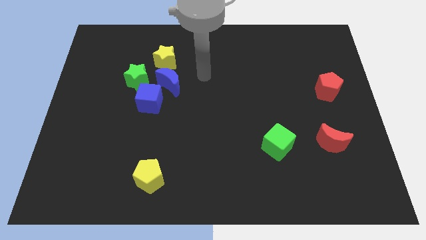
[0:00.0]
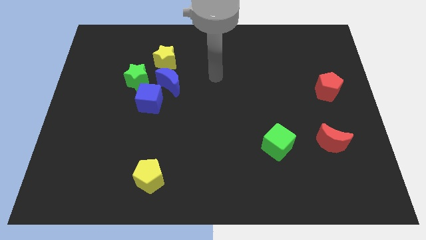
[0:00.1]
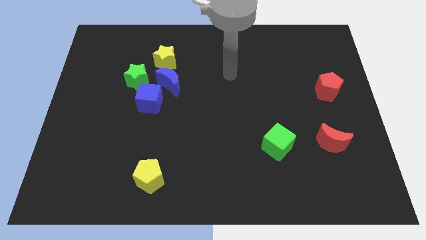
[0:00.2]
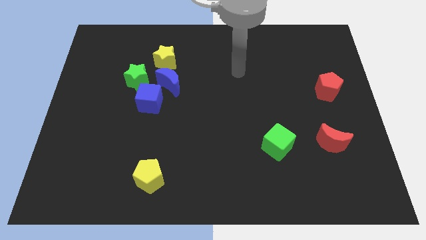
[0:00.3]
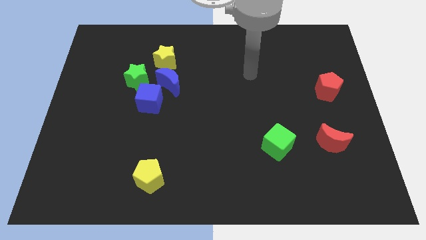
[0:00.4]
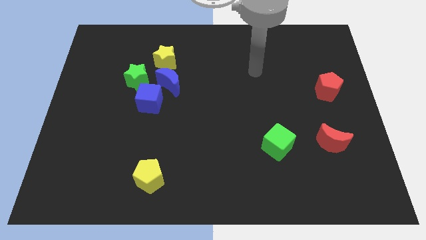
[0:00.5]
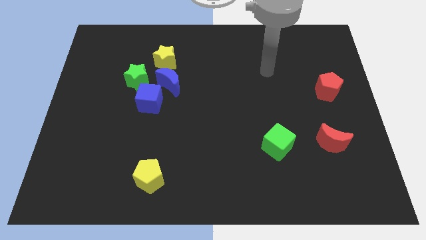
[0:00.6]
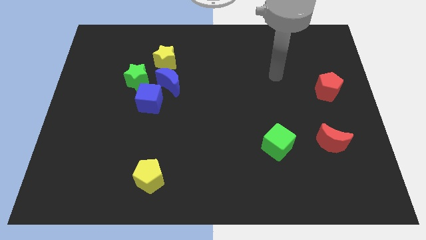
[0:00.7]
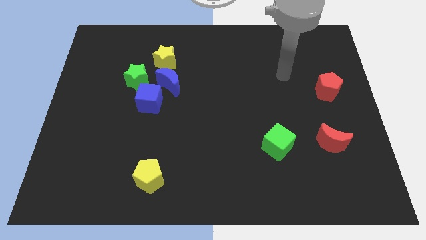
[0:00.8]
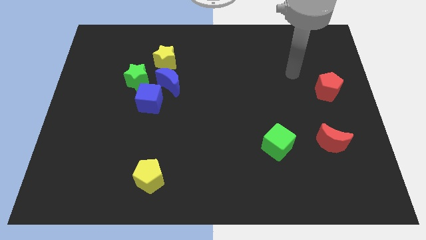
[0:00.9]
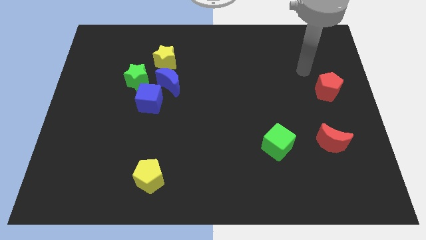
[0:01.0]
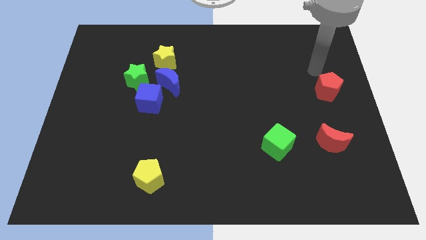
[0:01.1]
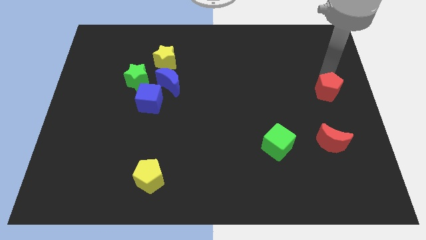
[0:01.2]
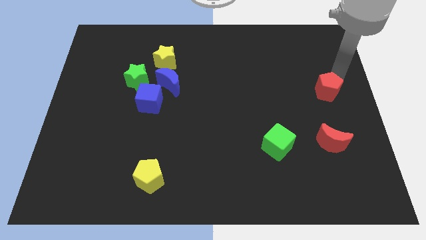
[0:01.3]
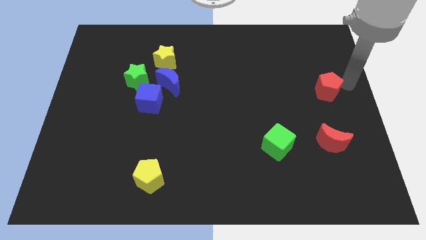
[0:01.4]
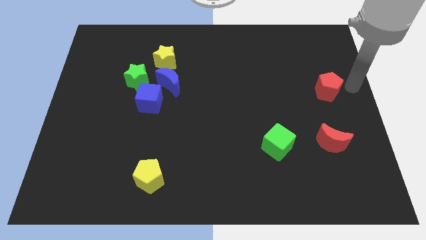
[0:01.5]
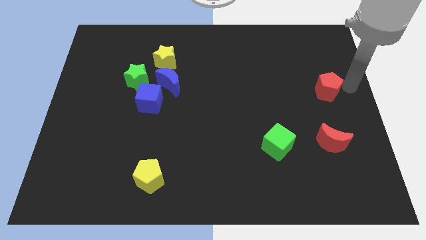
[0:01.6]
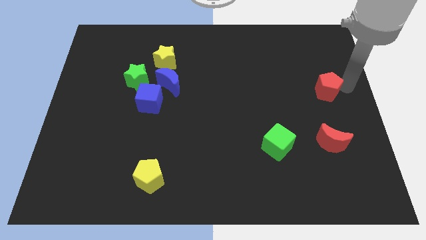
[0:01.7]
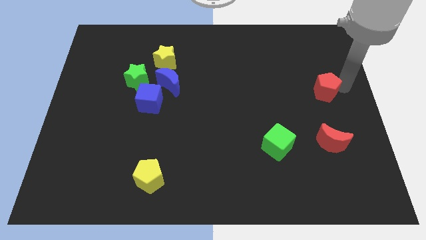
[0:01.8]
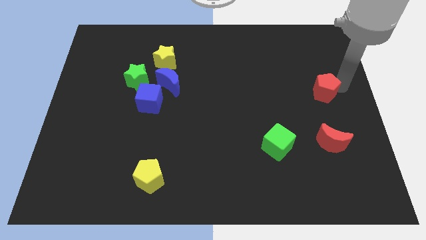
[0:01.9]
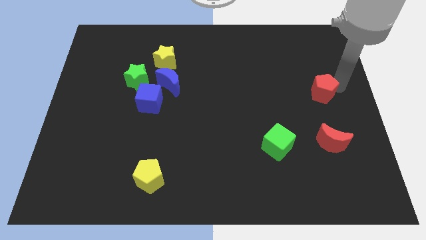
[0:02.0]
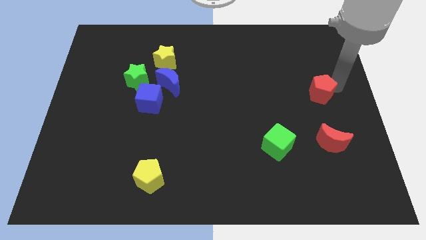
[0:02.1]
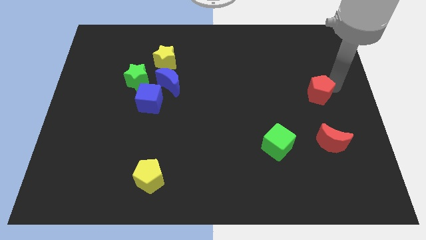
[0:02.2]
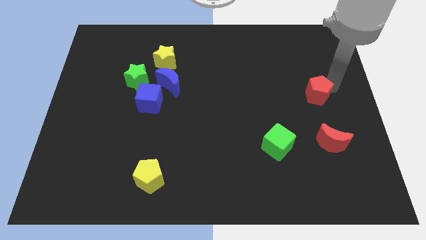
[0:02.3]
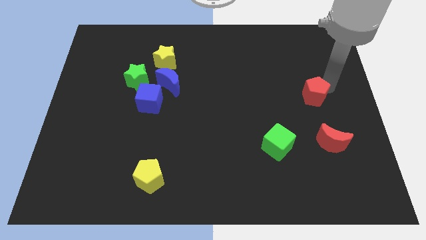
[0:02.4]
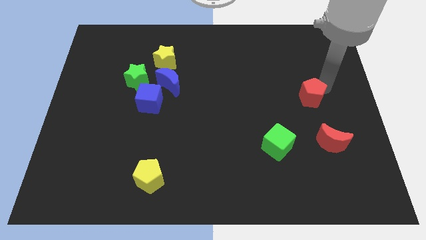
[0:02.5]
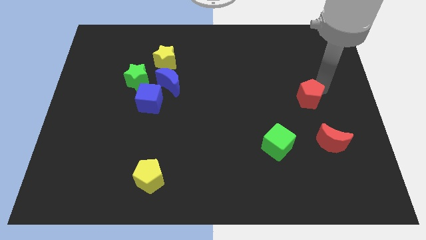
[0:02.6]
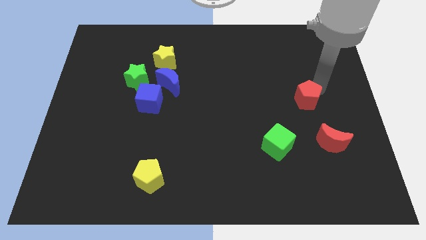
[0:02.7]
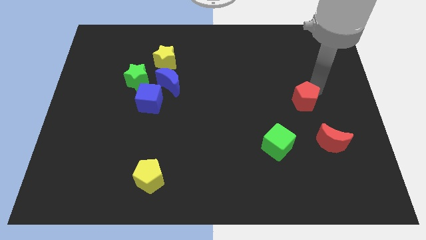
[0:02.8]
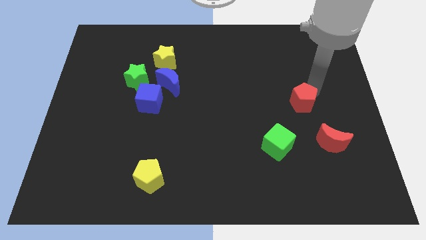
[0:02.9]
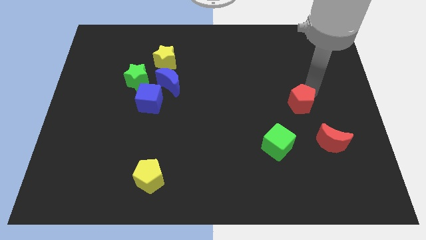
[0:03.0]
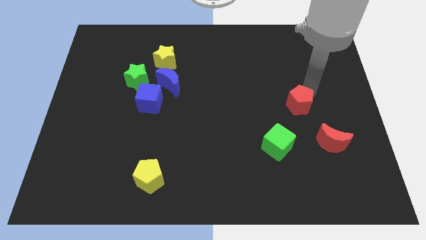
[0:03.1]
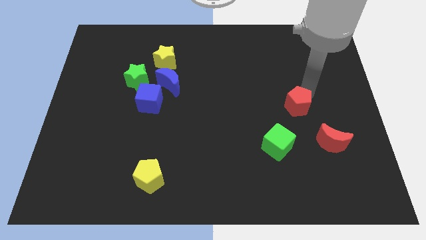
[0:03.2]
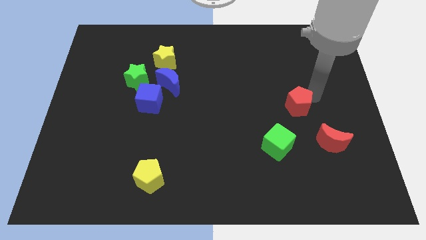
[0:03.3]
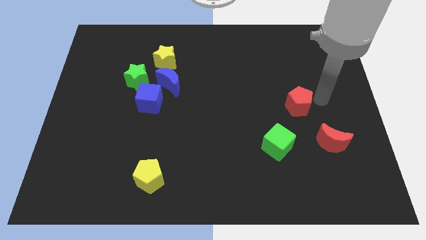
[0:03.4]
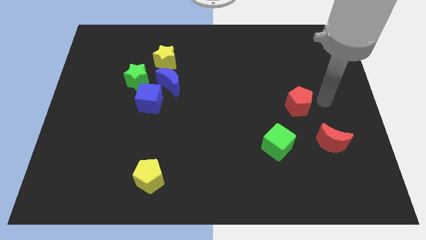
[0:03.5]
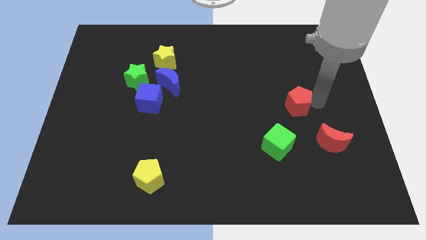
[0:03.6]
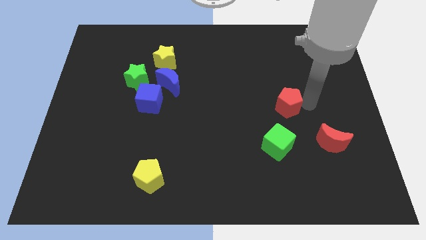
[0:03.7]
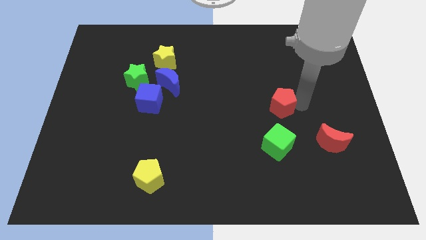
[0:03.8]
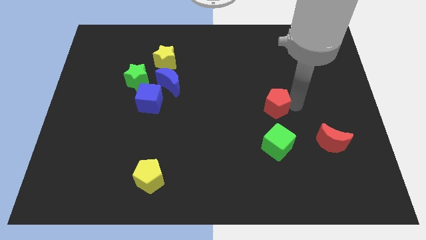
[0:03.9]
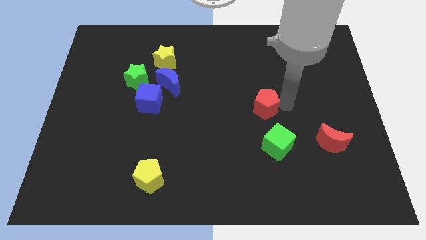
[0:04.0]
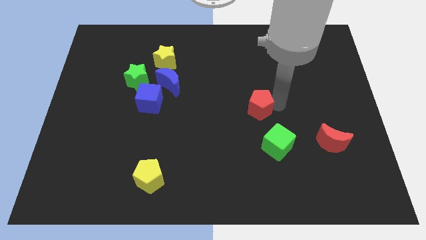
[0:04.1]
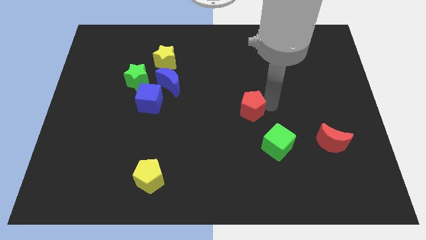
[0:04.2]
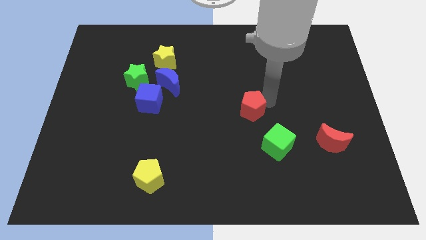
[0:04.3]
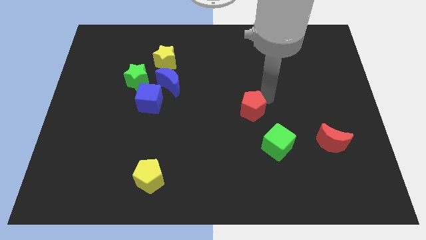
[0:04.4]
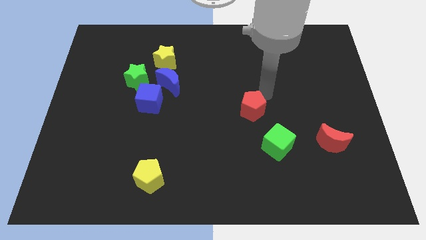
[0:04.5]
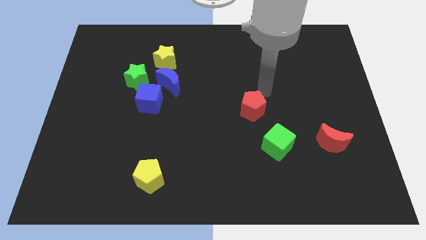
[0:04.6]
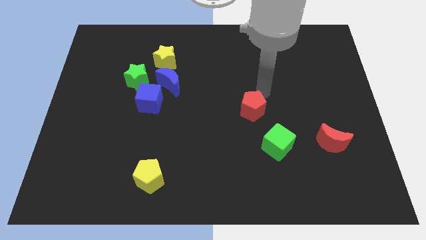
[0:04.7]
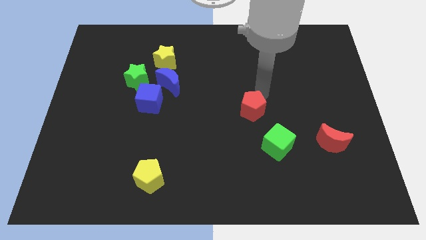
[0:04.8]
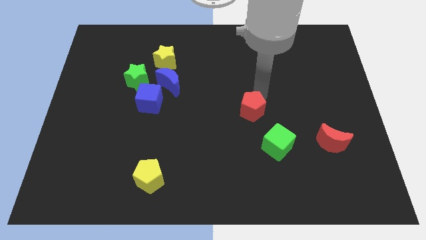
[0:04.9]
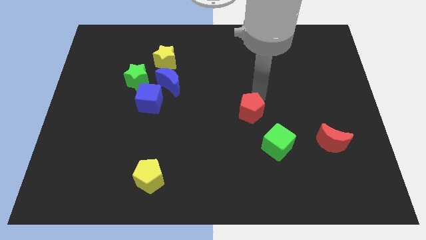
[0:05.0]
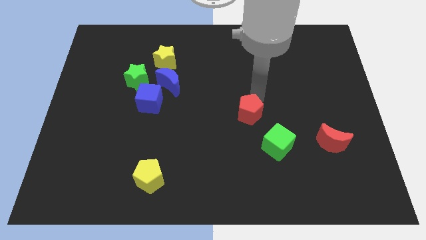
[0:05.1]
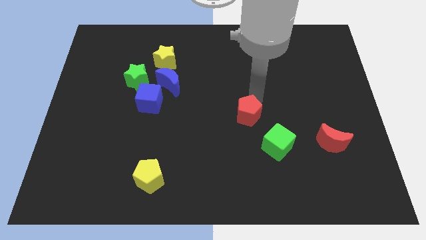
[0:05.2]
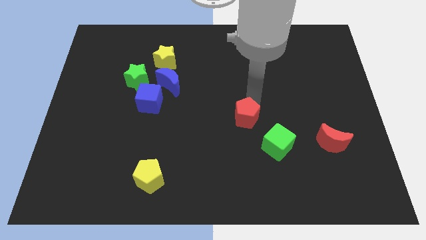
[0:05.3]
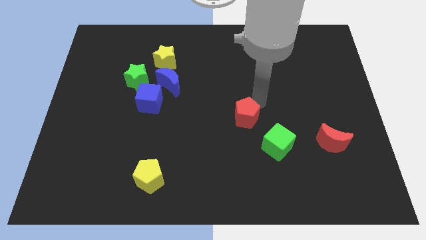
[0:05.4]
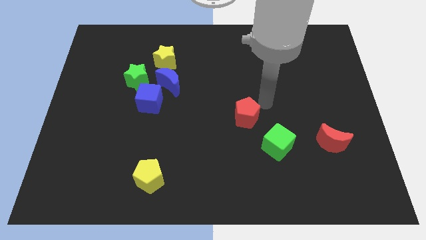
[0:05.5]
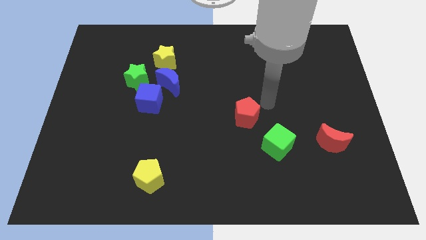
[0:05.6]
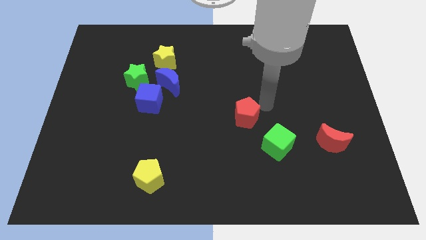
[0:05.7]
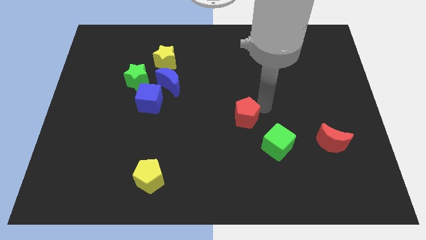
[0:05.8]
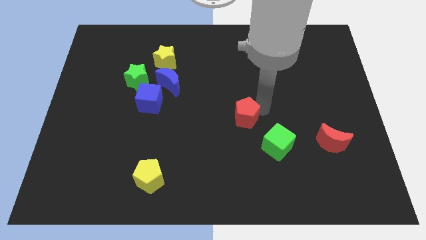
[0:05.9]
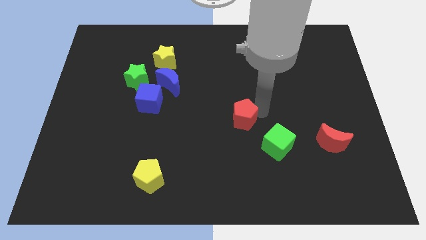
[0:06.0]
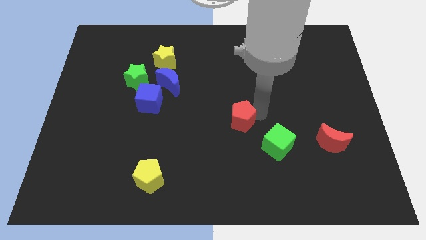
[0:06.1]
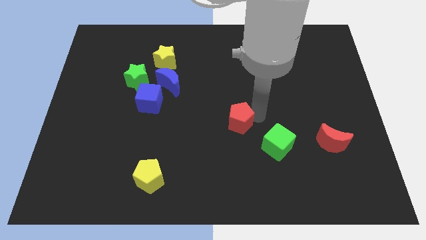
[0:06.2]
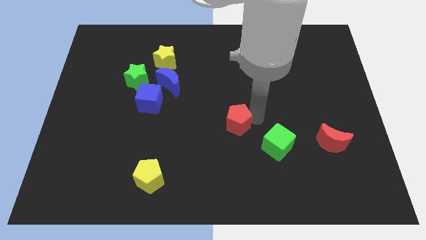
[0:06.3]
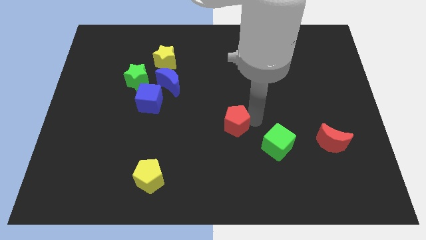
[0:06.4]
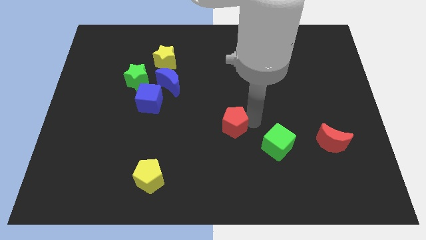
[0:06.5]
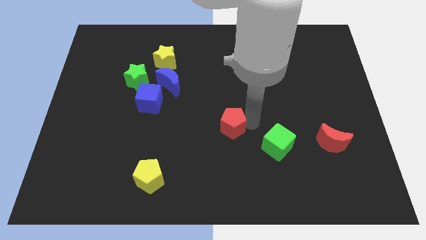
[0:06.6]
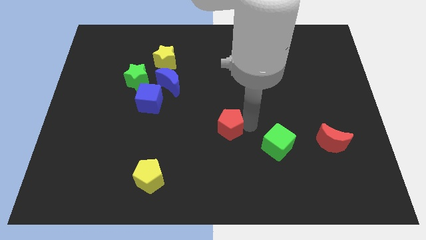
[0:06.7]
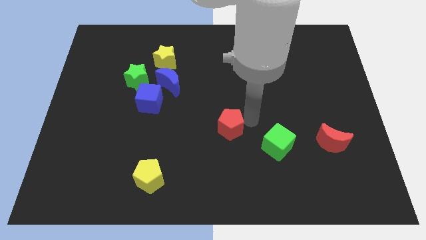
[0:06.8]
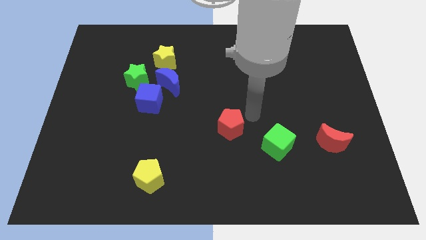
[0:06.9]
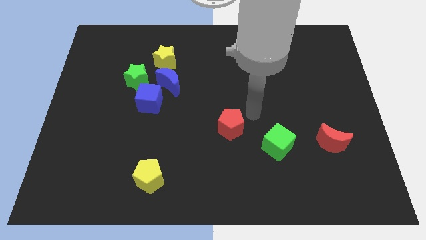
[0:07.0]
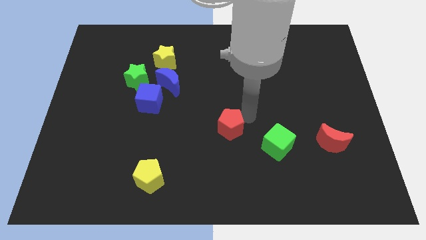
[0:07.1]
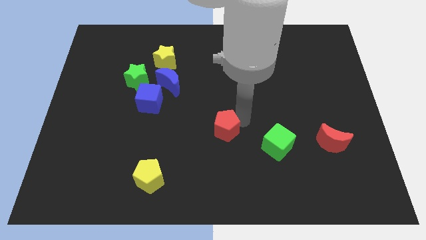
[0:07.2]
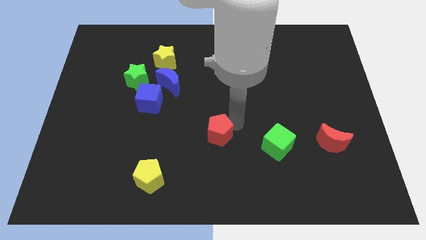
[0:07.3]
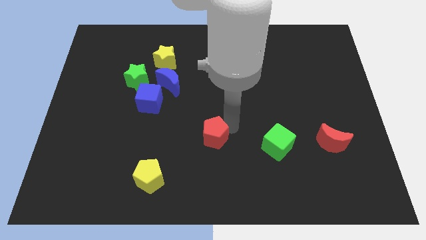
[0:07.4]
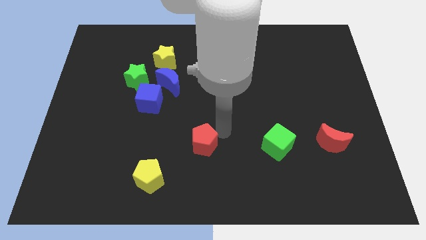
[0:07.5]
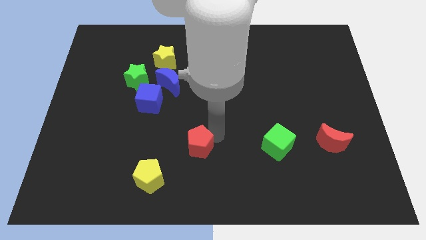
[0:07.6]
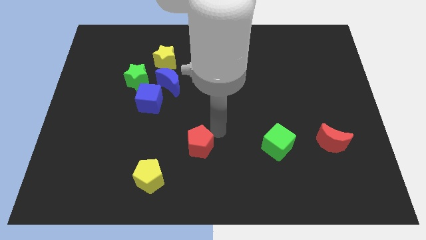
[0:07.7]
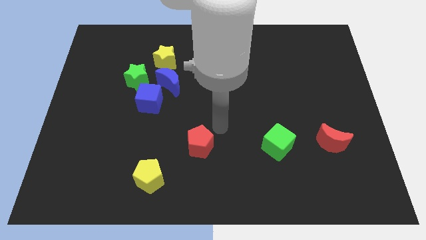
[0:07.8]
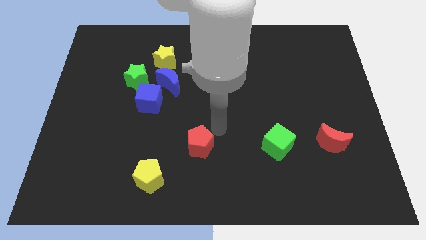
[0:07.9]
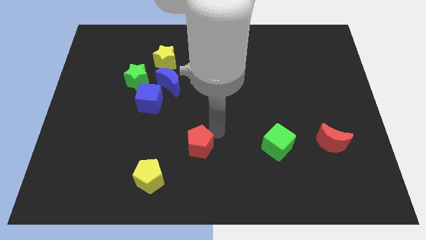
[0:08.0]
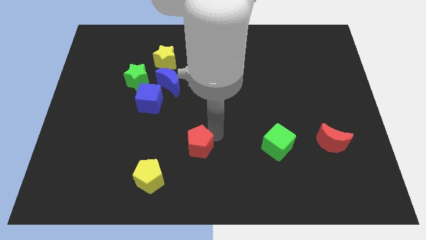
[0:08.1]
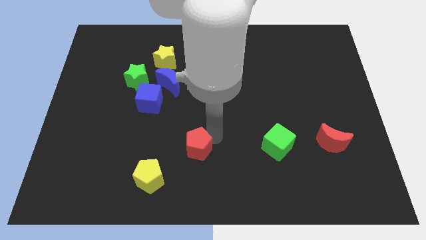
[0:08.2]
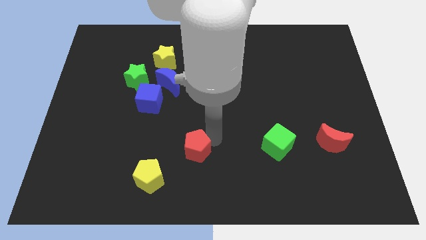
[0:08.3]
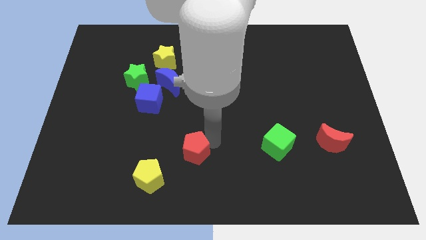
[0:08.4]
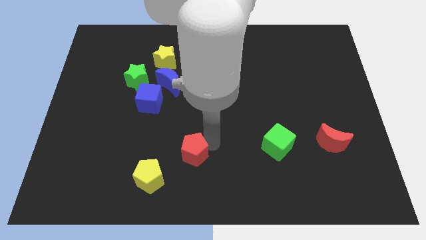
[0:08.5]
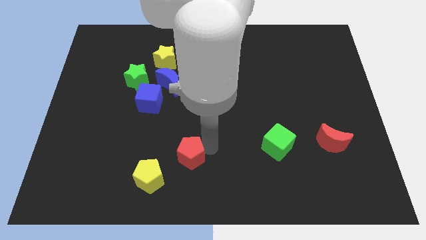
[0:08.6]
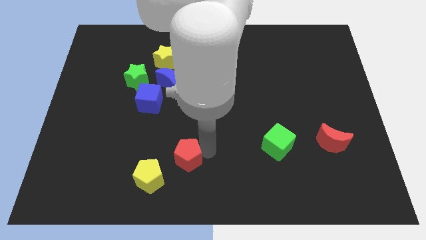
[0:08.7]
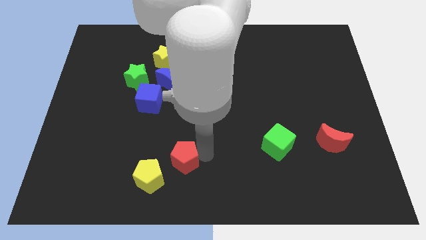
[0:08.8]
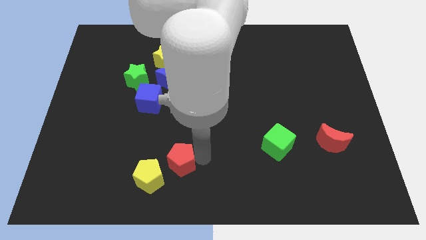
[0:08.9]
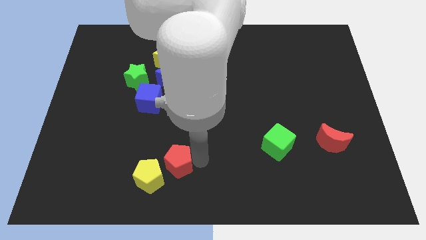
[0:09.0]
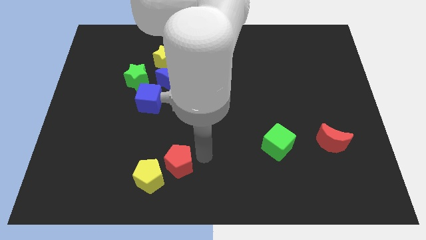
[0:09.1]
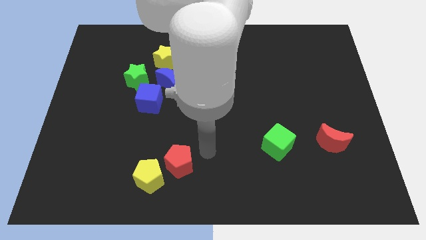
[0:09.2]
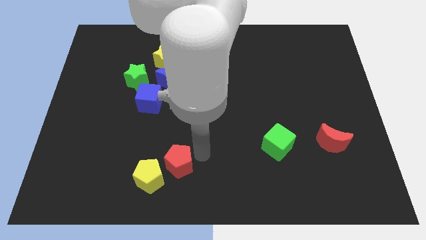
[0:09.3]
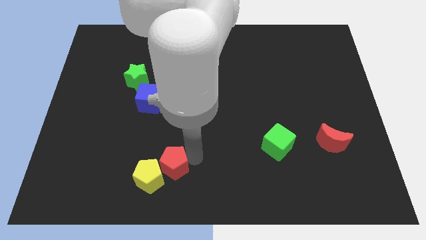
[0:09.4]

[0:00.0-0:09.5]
push the red pentagon towards the yellow pentagon
